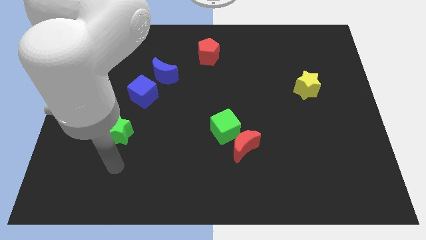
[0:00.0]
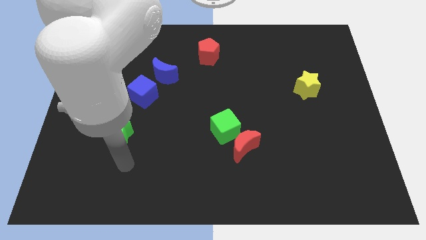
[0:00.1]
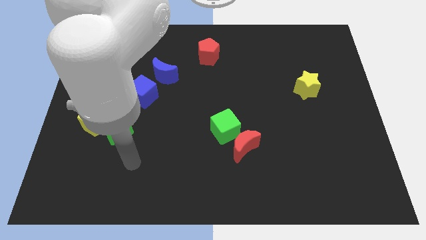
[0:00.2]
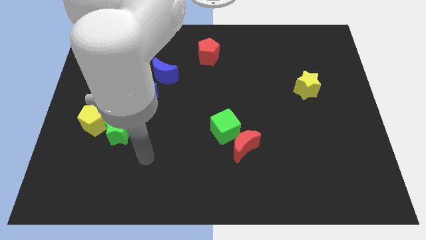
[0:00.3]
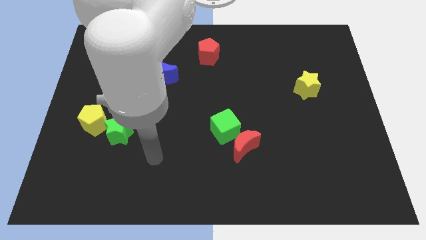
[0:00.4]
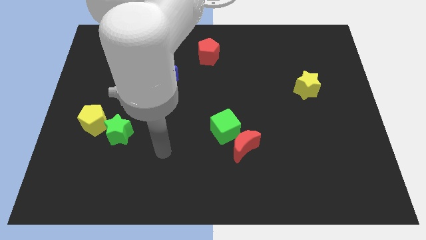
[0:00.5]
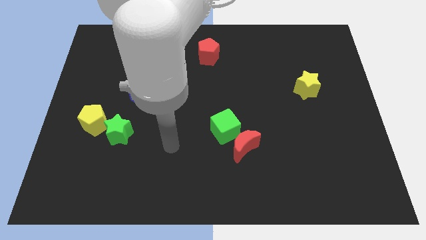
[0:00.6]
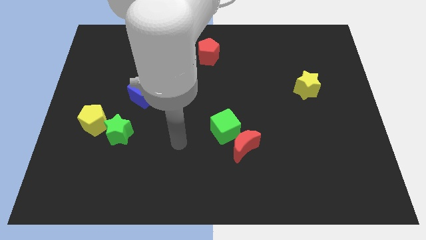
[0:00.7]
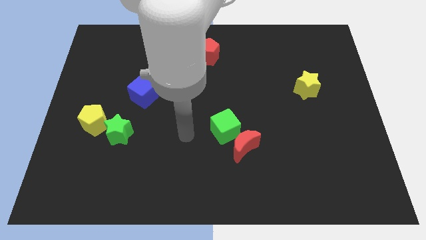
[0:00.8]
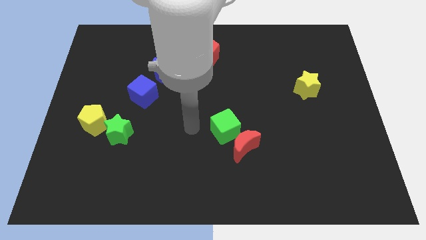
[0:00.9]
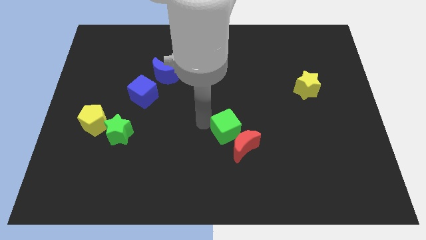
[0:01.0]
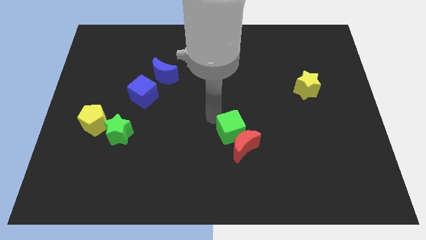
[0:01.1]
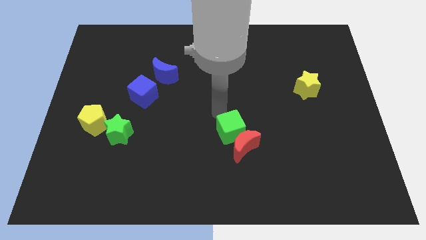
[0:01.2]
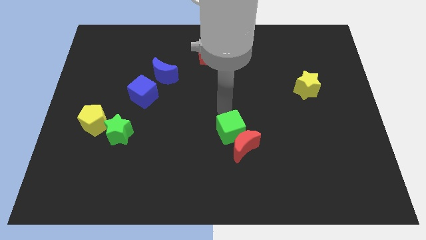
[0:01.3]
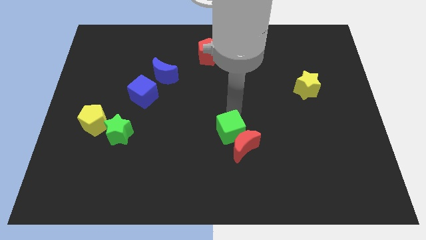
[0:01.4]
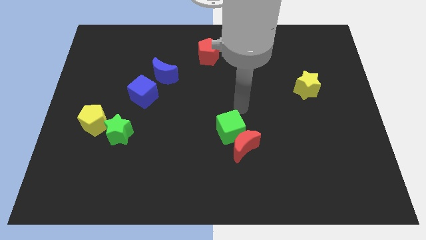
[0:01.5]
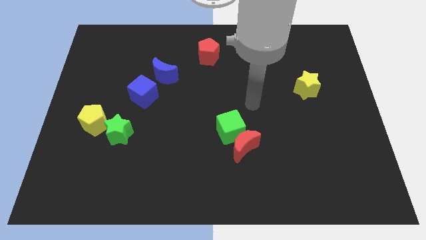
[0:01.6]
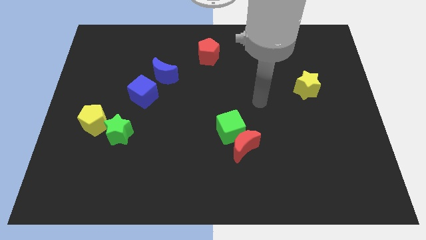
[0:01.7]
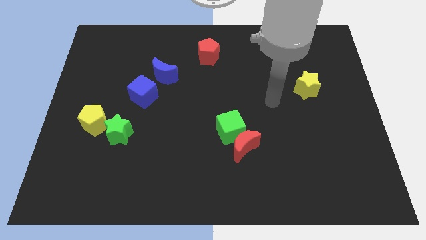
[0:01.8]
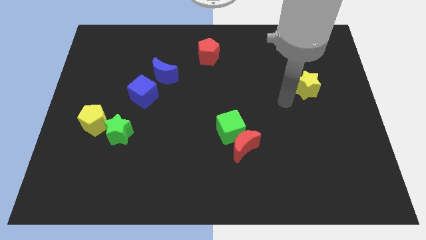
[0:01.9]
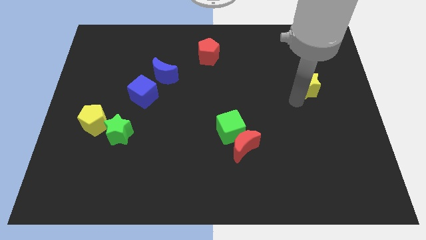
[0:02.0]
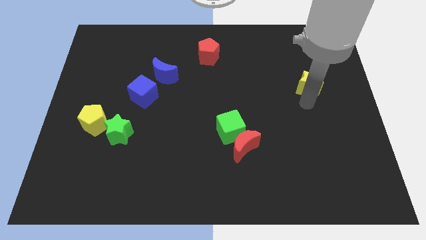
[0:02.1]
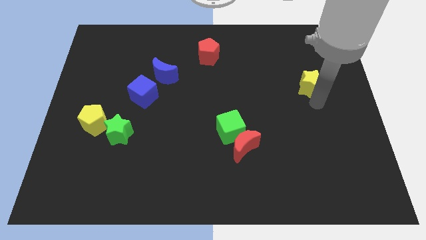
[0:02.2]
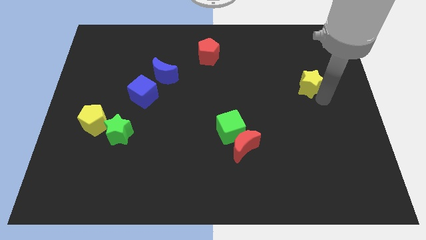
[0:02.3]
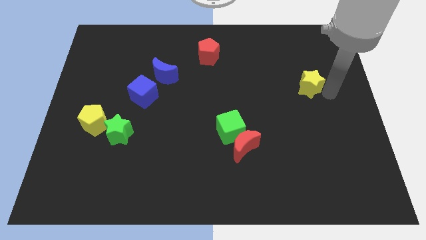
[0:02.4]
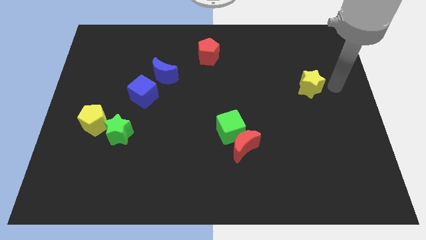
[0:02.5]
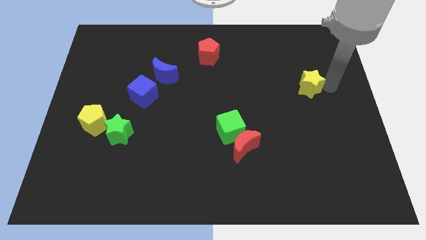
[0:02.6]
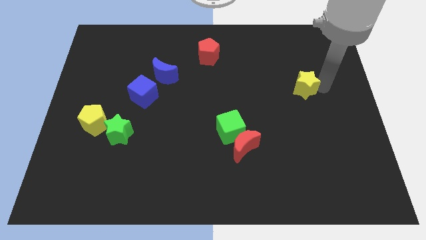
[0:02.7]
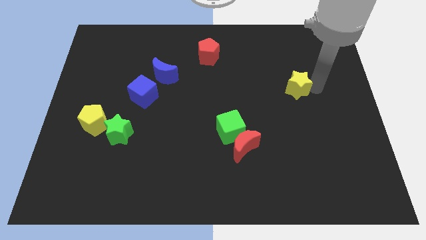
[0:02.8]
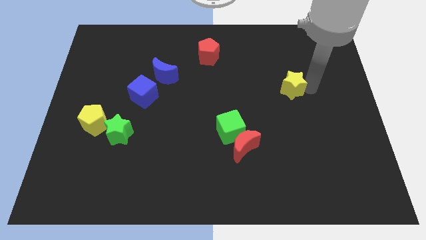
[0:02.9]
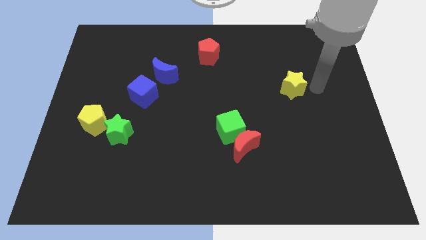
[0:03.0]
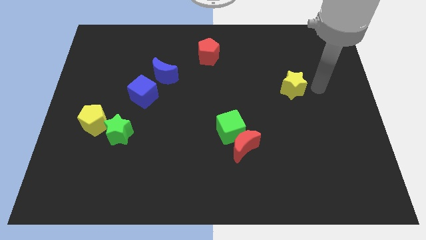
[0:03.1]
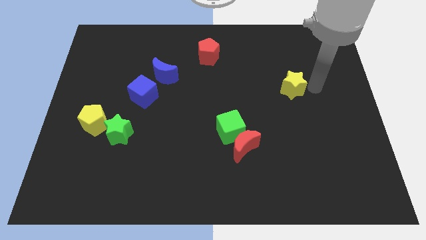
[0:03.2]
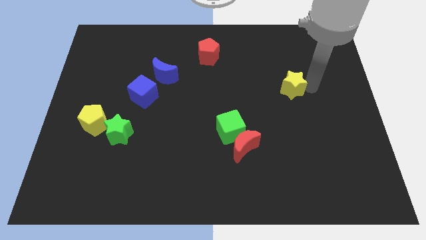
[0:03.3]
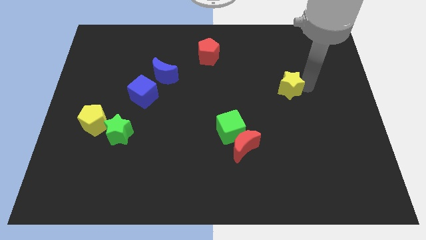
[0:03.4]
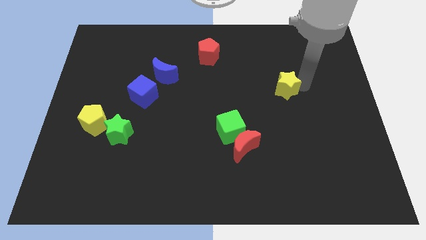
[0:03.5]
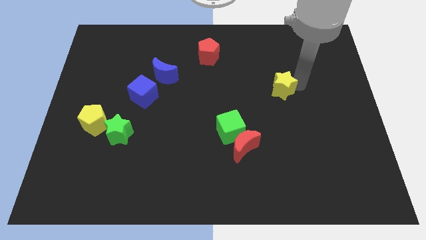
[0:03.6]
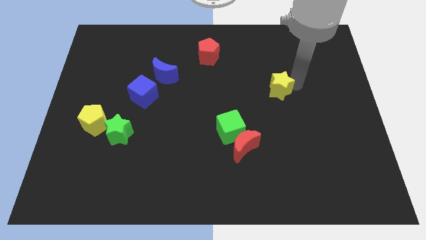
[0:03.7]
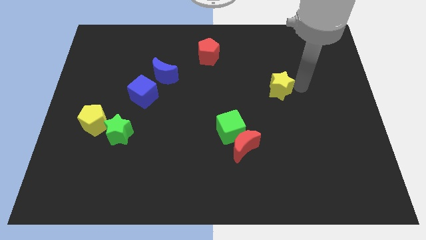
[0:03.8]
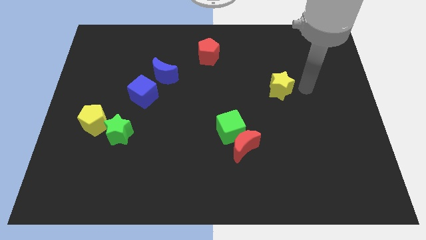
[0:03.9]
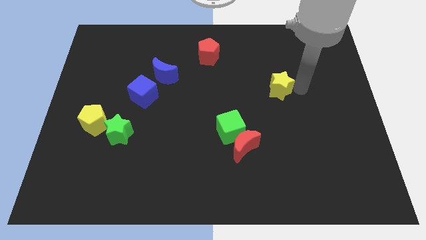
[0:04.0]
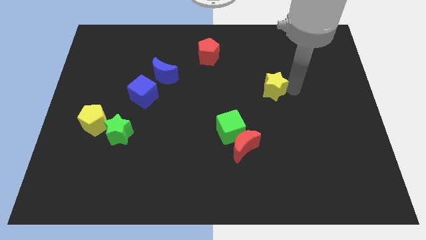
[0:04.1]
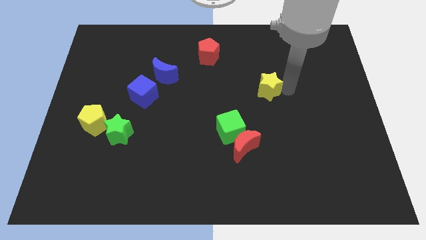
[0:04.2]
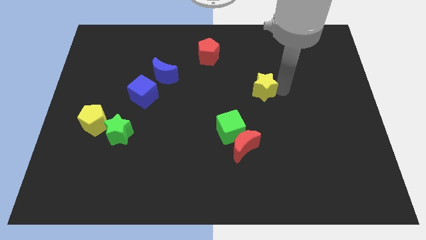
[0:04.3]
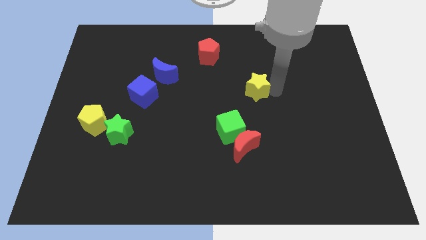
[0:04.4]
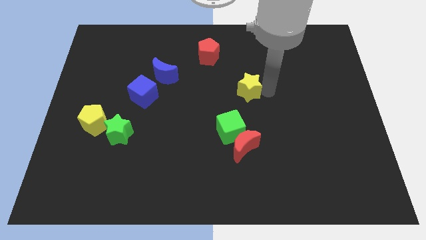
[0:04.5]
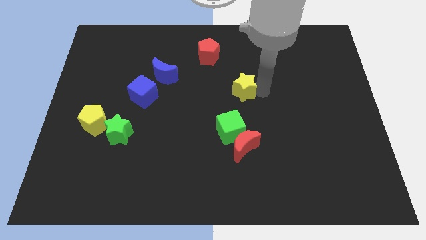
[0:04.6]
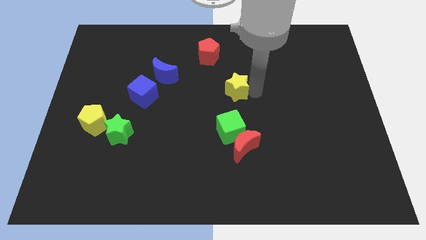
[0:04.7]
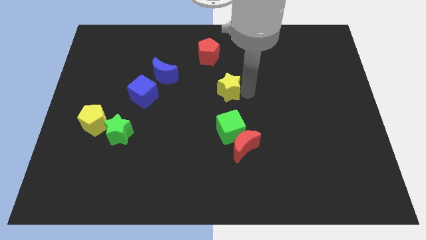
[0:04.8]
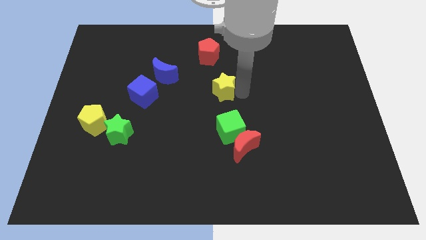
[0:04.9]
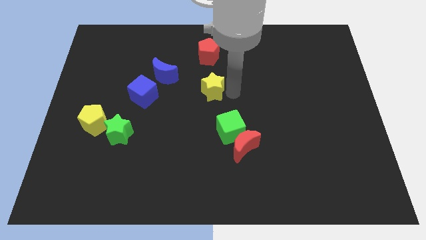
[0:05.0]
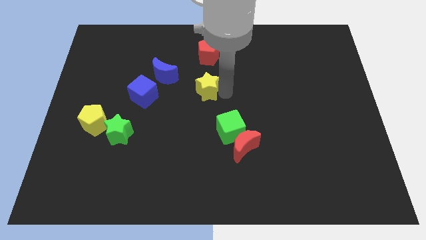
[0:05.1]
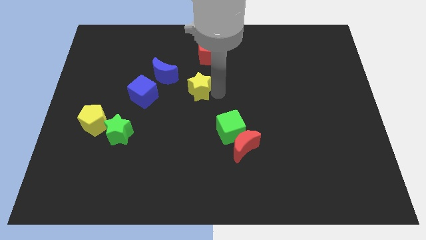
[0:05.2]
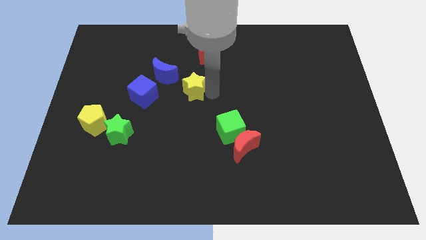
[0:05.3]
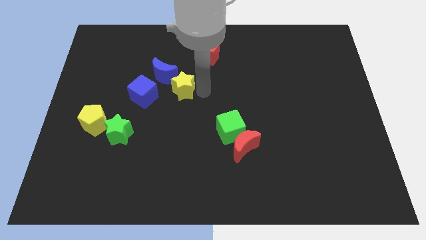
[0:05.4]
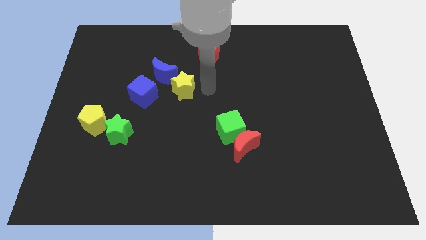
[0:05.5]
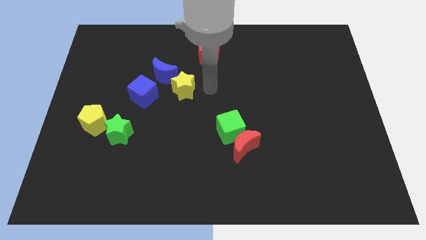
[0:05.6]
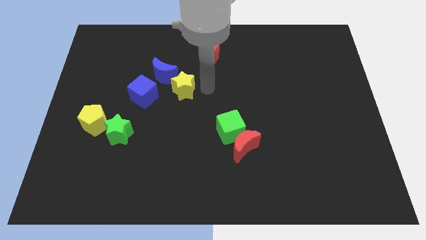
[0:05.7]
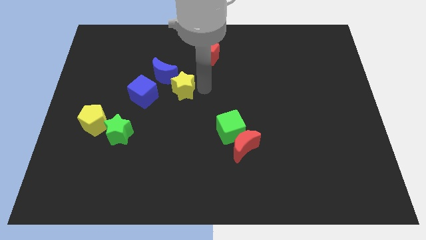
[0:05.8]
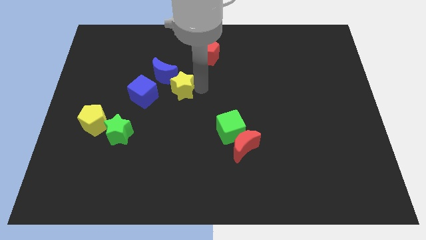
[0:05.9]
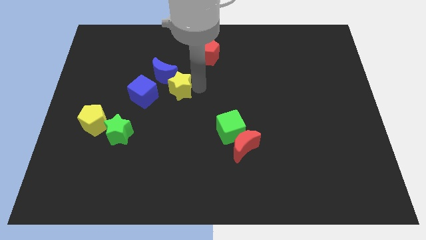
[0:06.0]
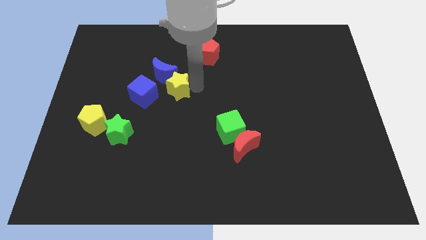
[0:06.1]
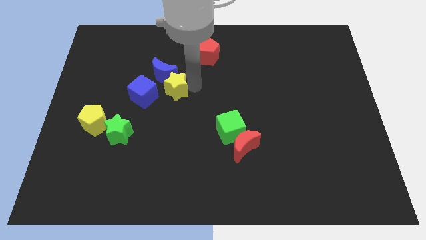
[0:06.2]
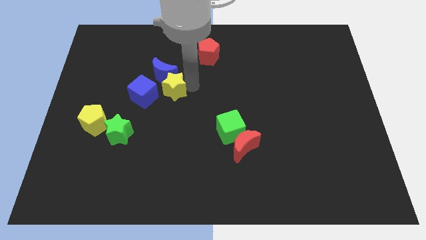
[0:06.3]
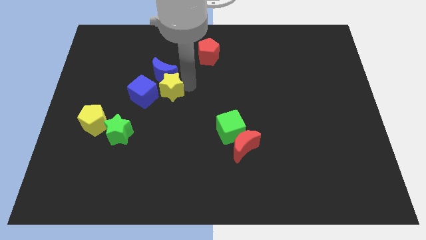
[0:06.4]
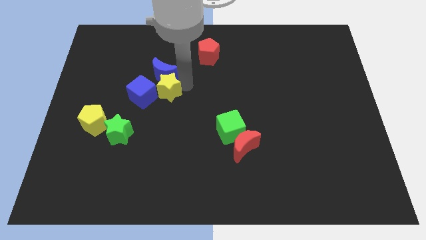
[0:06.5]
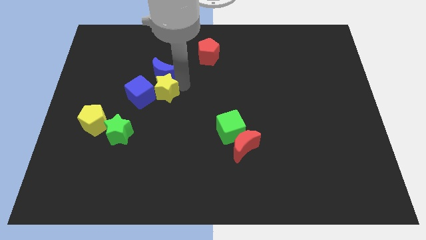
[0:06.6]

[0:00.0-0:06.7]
slide the yellow star to the blue cube

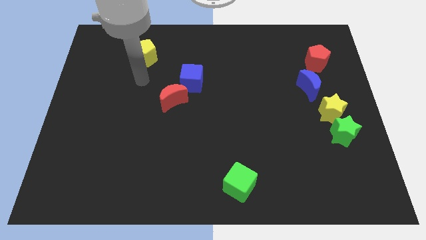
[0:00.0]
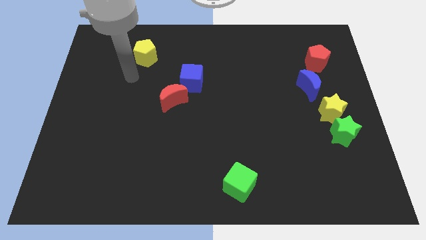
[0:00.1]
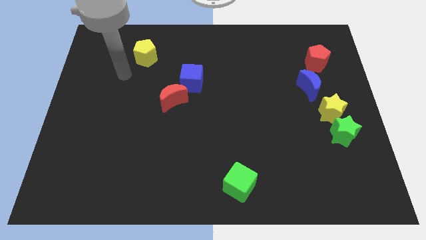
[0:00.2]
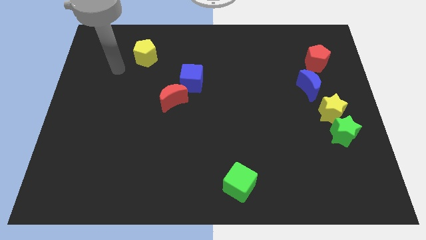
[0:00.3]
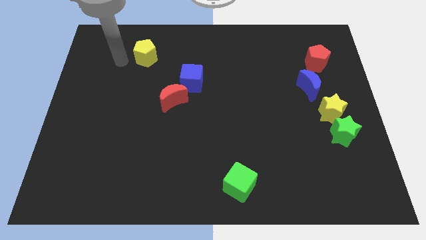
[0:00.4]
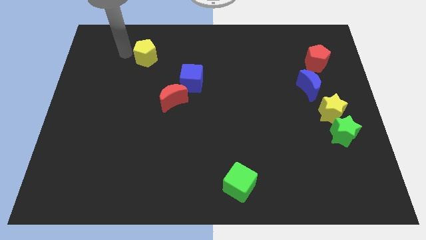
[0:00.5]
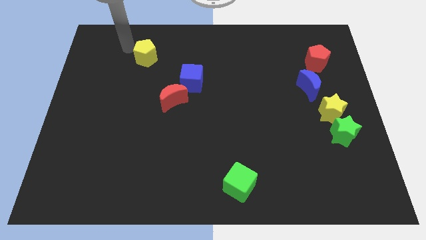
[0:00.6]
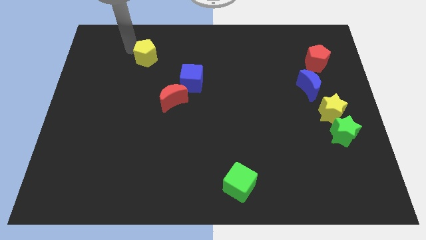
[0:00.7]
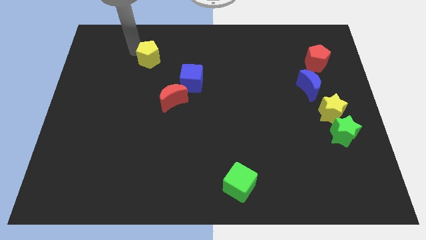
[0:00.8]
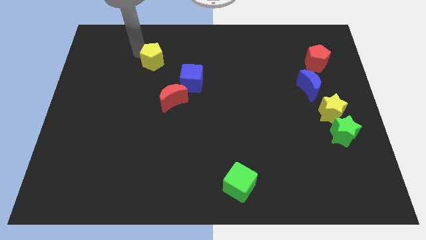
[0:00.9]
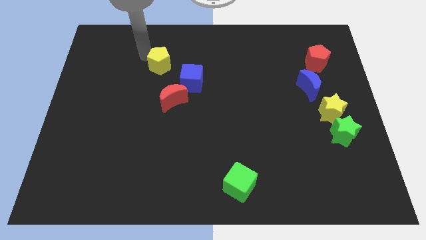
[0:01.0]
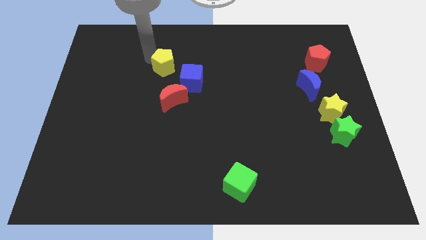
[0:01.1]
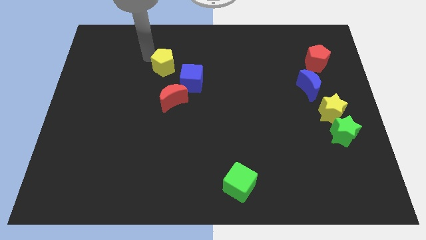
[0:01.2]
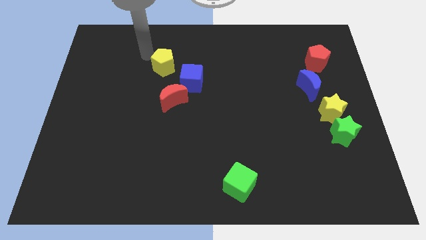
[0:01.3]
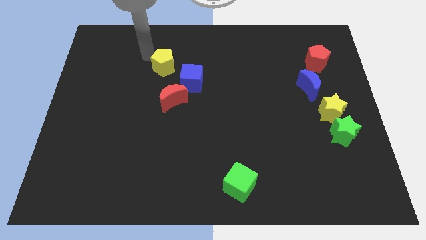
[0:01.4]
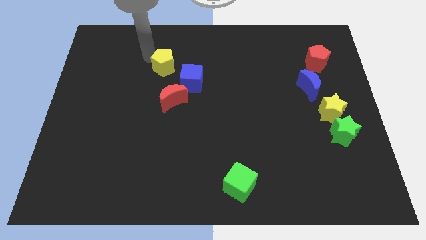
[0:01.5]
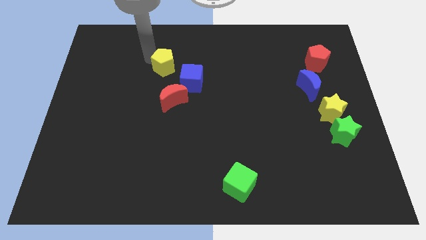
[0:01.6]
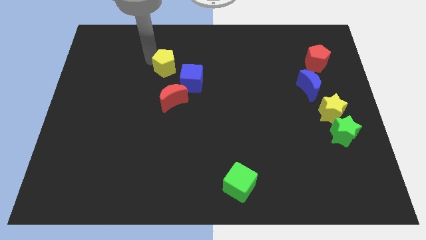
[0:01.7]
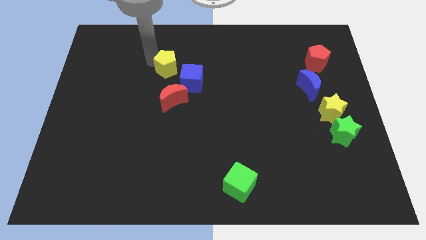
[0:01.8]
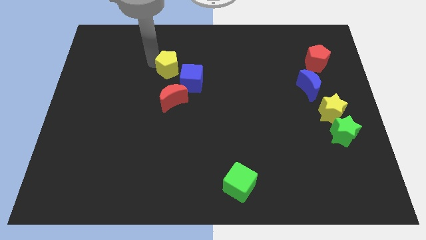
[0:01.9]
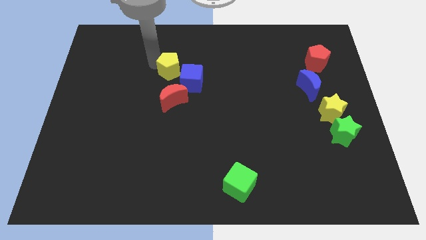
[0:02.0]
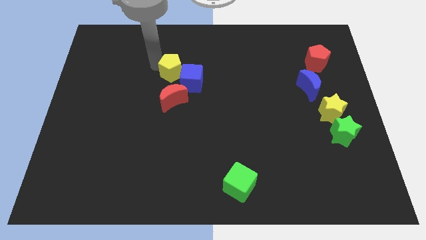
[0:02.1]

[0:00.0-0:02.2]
put the yellow pentagon to the blue cube
